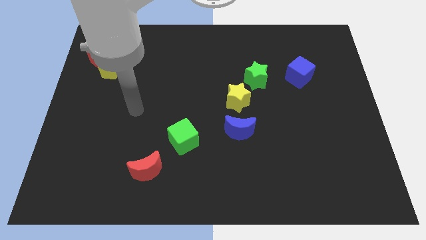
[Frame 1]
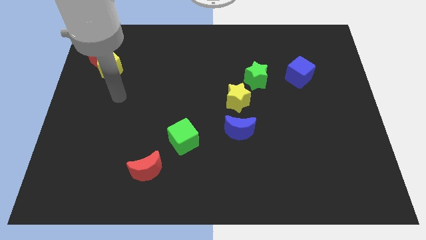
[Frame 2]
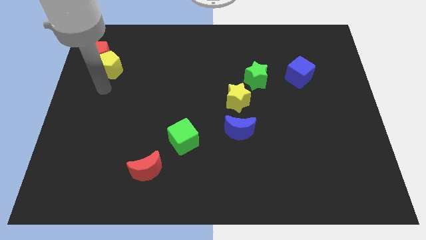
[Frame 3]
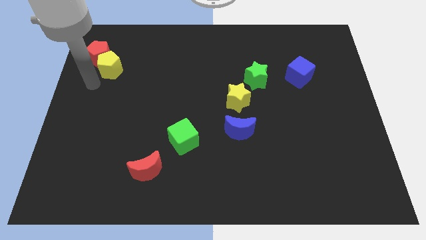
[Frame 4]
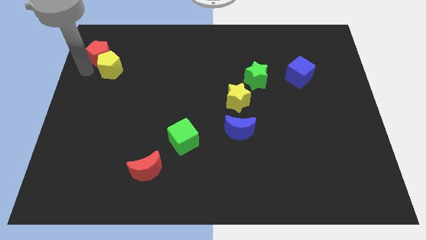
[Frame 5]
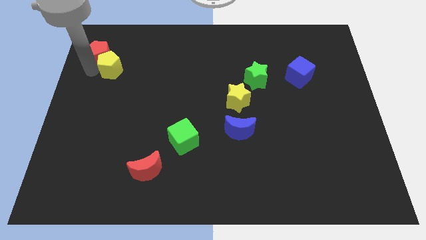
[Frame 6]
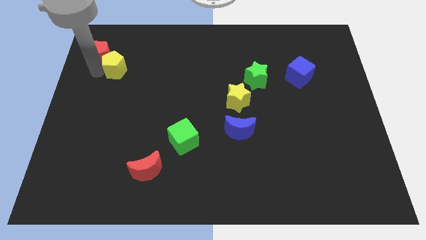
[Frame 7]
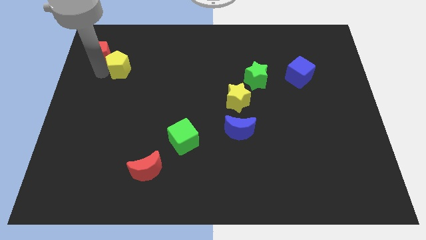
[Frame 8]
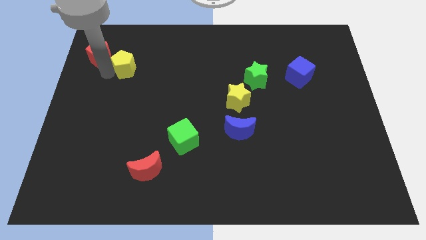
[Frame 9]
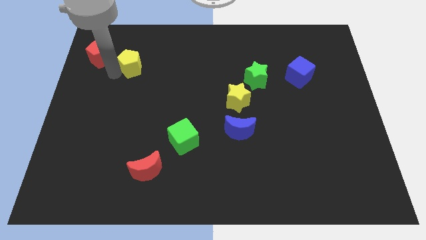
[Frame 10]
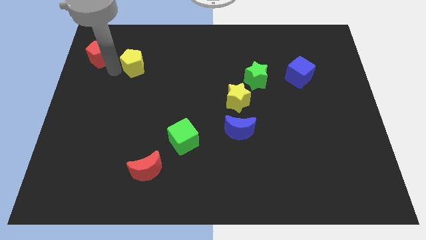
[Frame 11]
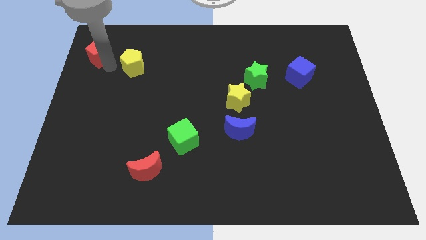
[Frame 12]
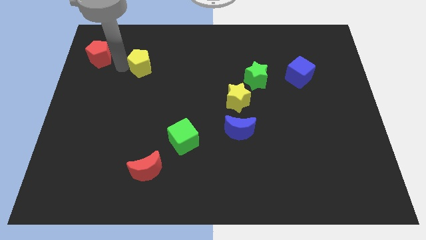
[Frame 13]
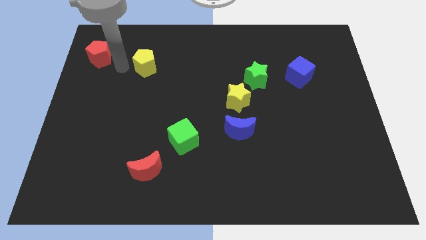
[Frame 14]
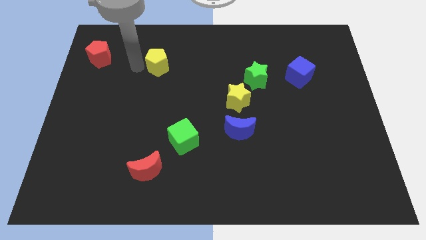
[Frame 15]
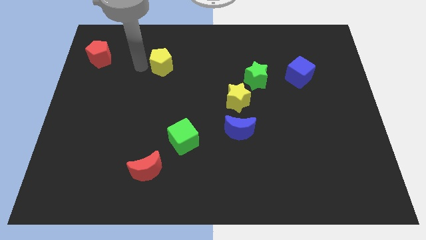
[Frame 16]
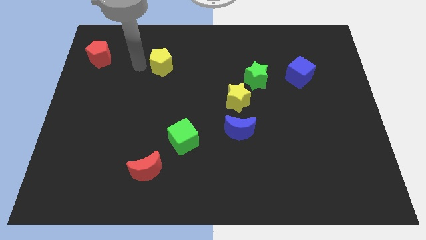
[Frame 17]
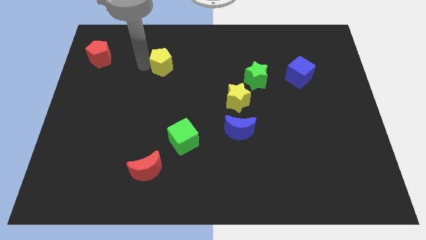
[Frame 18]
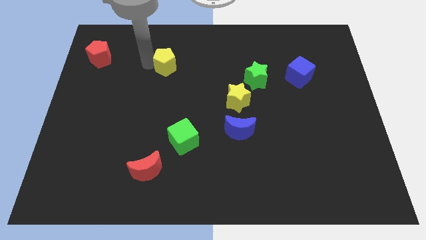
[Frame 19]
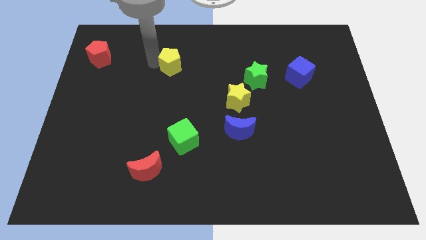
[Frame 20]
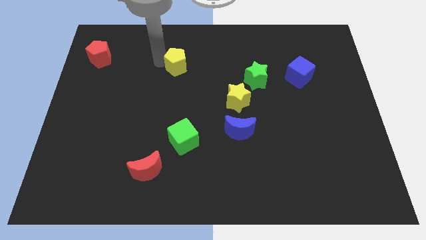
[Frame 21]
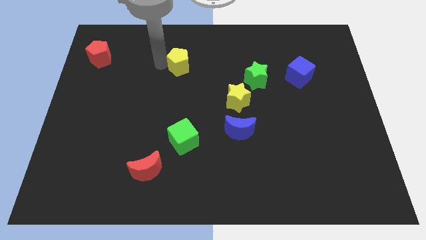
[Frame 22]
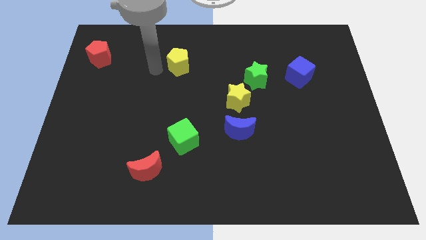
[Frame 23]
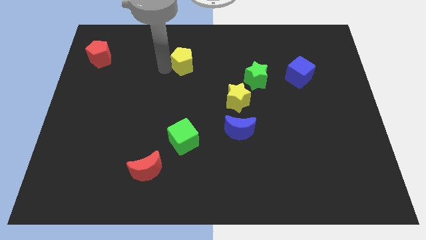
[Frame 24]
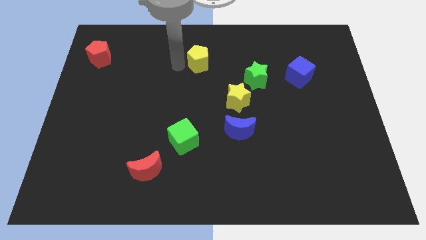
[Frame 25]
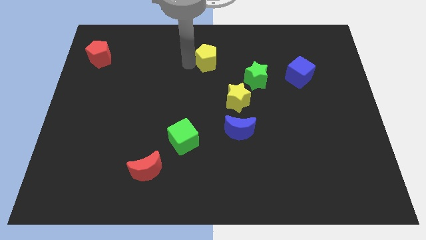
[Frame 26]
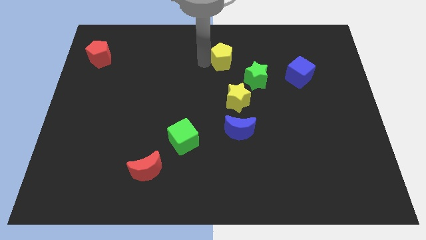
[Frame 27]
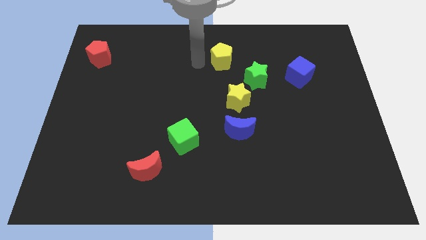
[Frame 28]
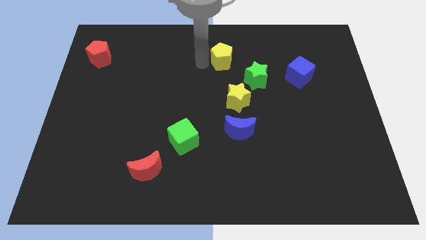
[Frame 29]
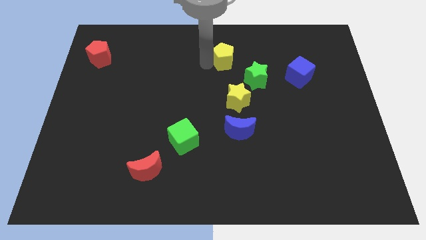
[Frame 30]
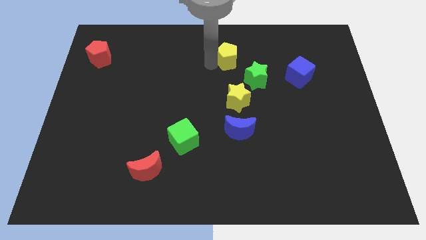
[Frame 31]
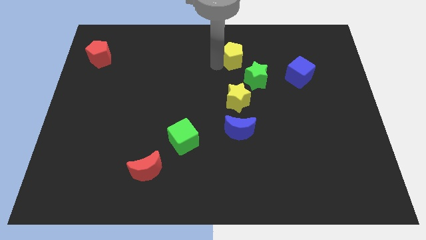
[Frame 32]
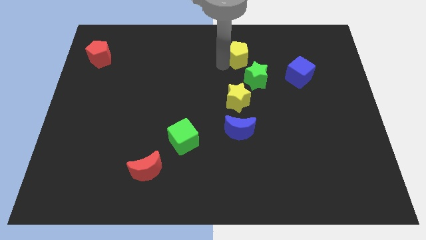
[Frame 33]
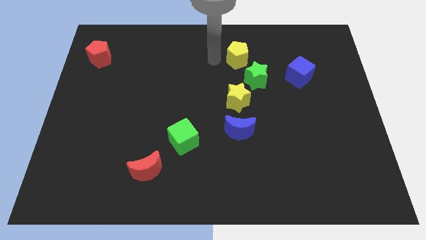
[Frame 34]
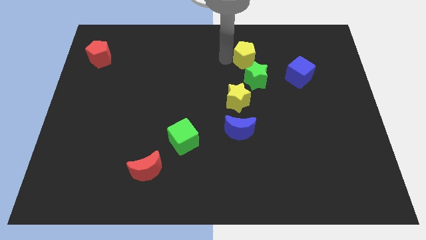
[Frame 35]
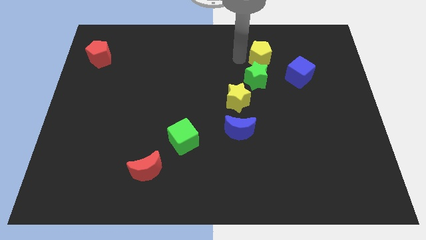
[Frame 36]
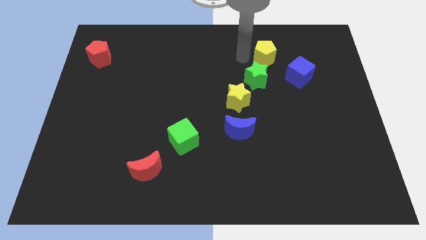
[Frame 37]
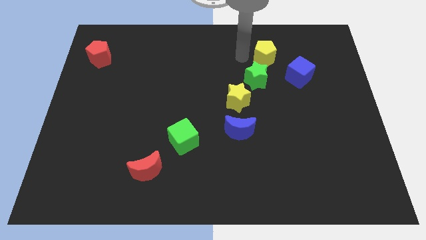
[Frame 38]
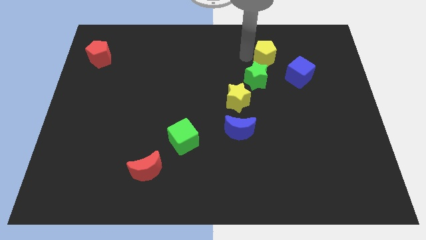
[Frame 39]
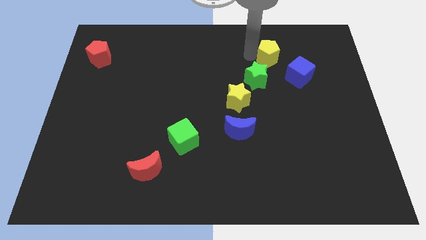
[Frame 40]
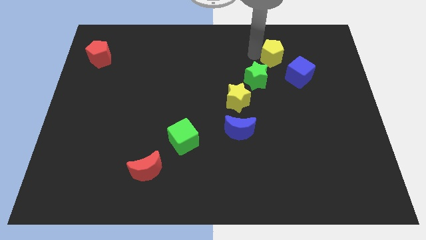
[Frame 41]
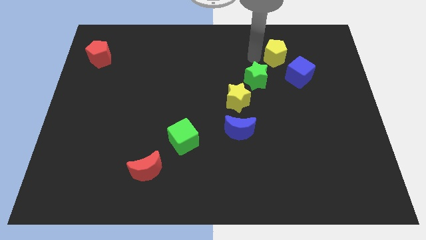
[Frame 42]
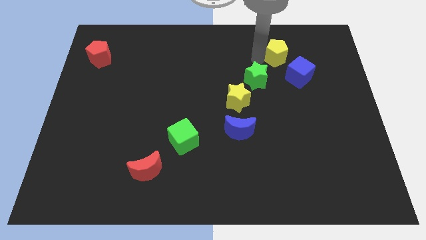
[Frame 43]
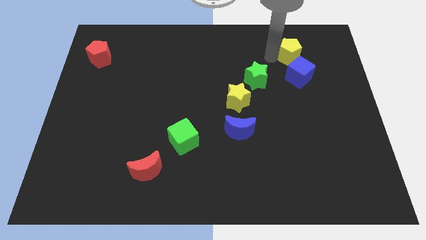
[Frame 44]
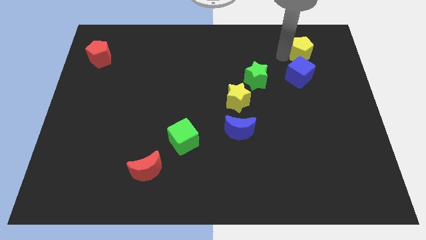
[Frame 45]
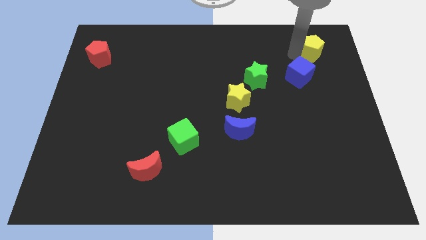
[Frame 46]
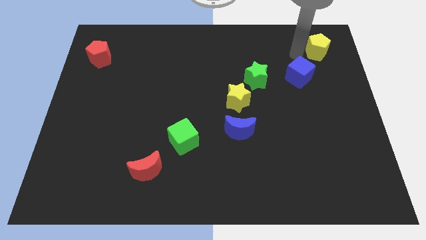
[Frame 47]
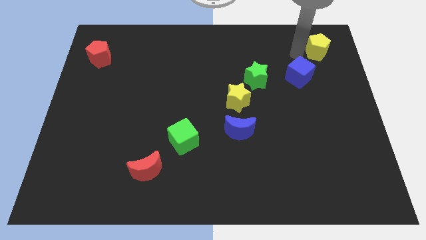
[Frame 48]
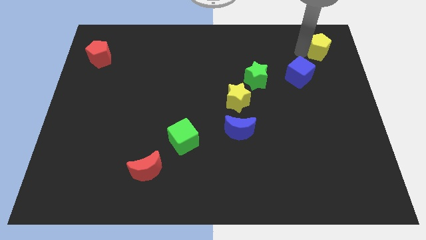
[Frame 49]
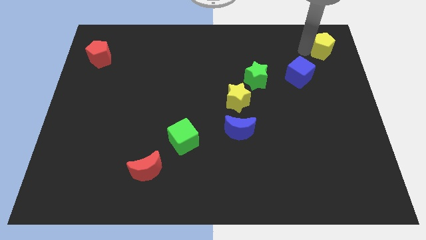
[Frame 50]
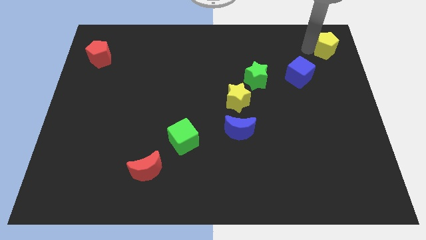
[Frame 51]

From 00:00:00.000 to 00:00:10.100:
move the yellow pentagon to the top right corner

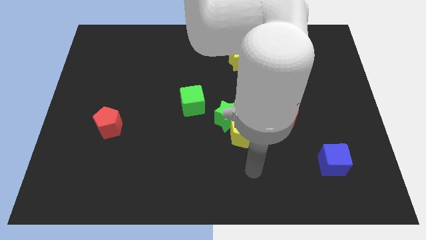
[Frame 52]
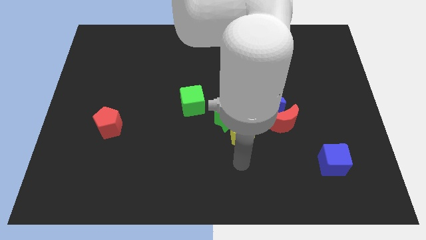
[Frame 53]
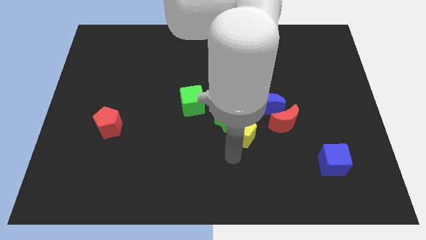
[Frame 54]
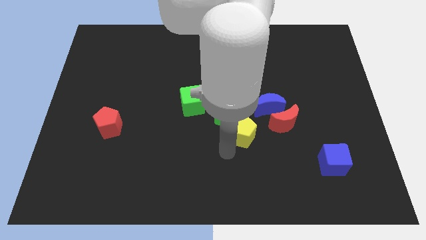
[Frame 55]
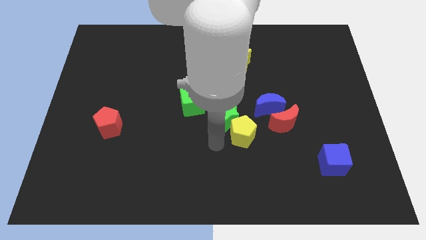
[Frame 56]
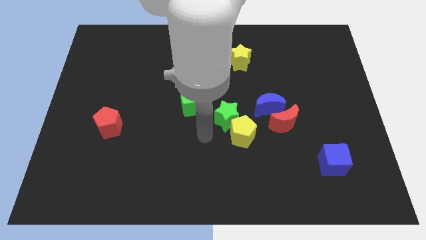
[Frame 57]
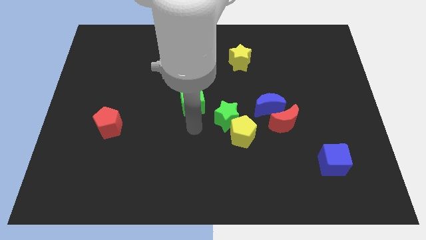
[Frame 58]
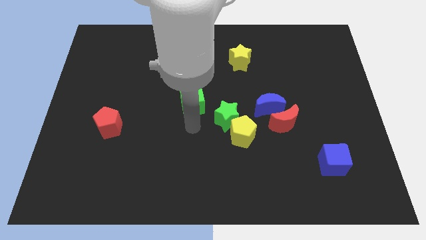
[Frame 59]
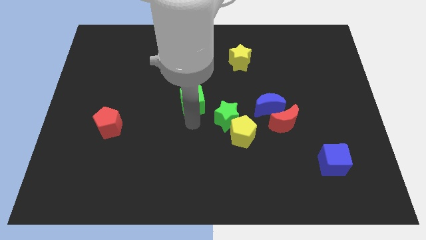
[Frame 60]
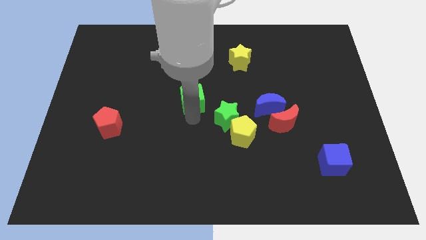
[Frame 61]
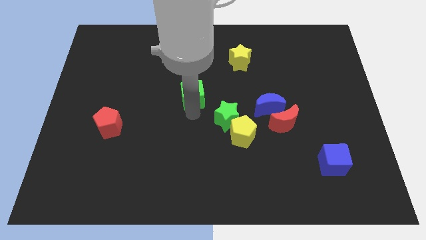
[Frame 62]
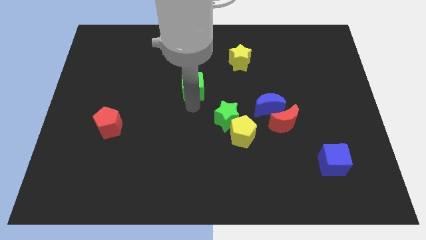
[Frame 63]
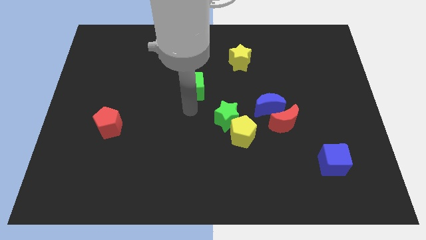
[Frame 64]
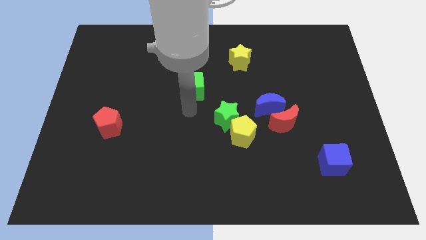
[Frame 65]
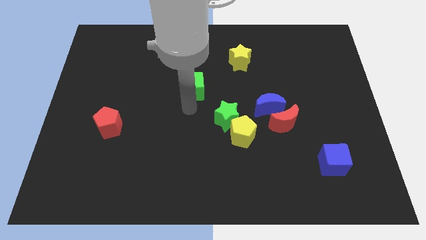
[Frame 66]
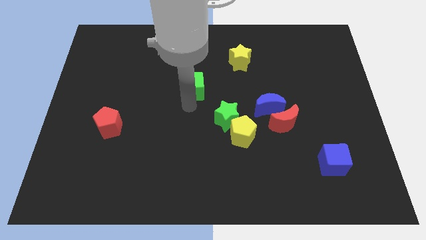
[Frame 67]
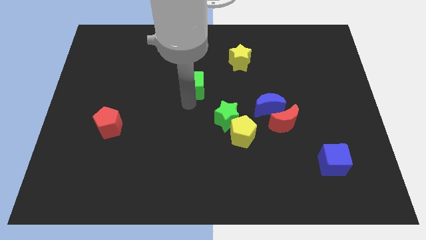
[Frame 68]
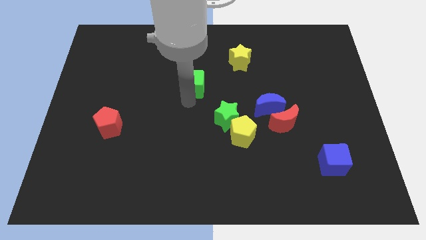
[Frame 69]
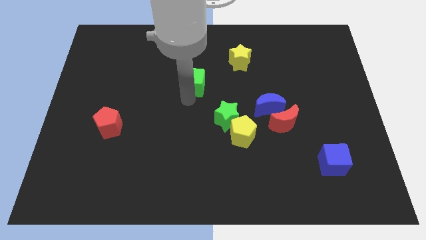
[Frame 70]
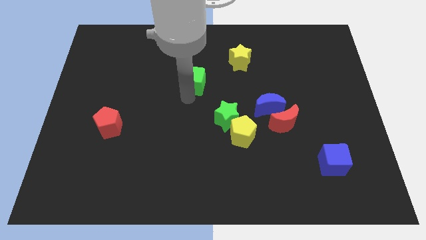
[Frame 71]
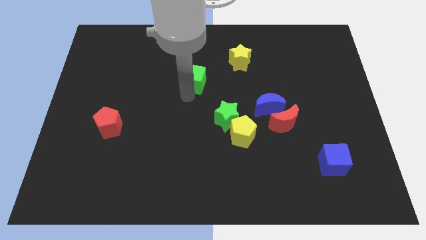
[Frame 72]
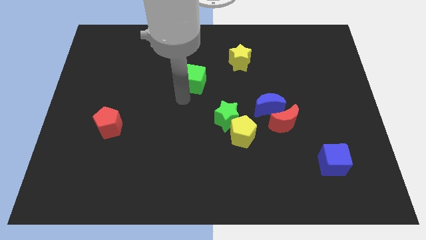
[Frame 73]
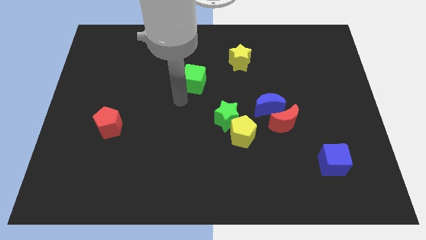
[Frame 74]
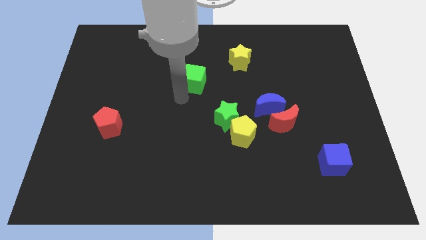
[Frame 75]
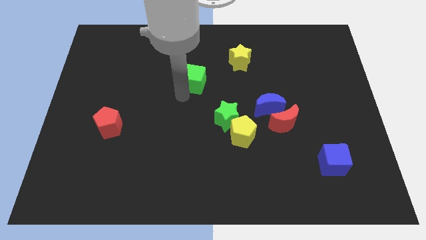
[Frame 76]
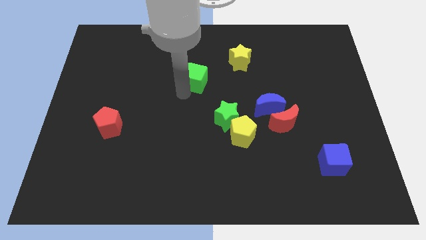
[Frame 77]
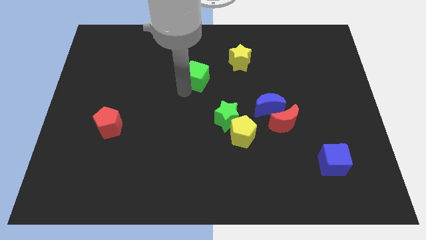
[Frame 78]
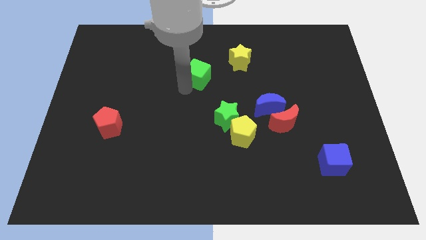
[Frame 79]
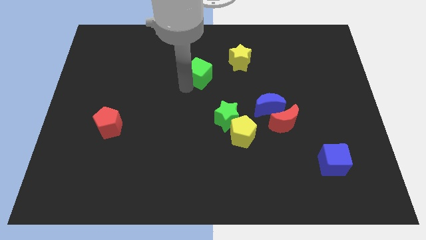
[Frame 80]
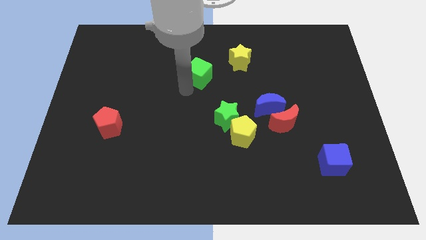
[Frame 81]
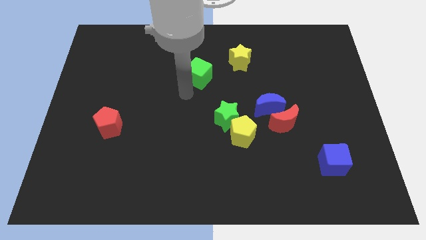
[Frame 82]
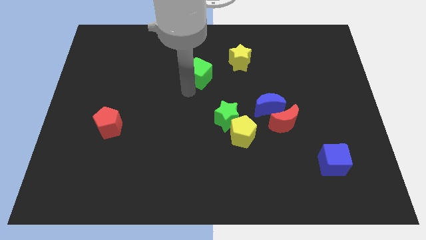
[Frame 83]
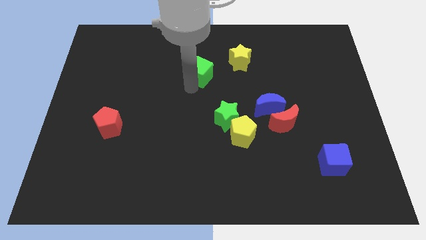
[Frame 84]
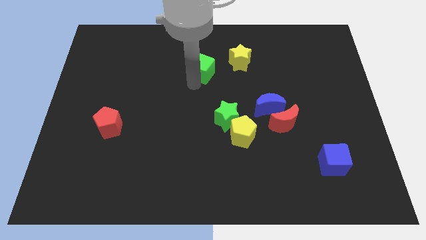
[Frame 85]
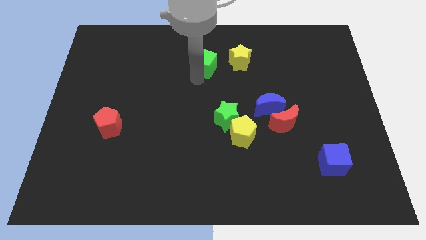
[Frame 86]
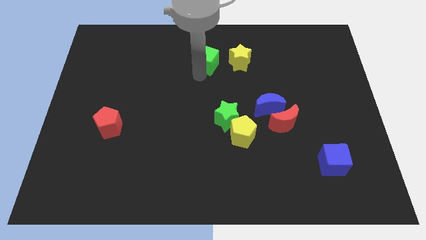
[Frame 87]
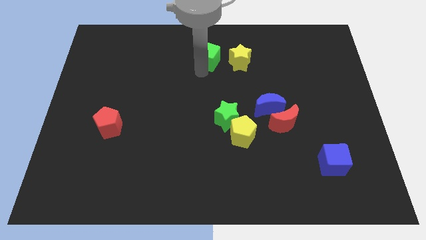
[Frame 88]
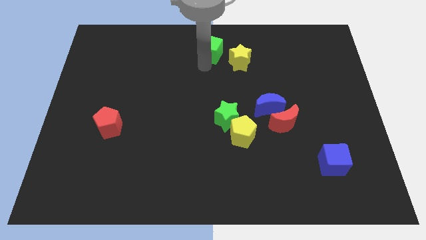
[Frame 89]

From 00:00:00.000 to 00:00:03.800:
move the green cube to the top
